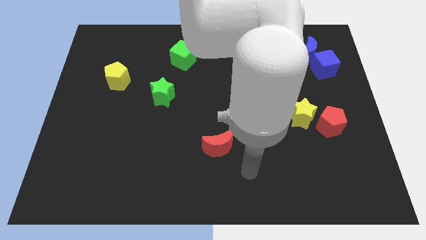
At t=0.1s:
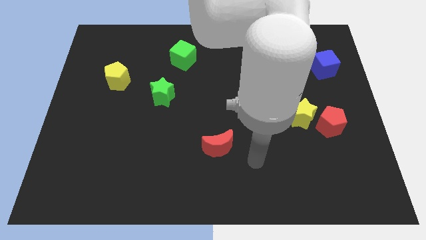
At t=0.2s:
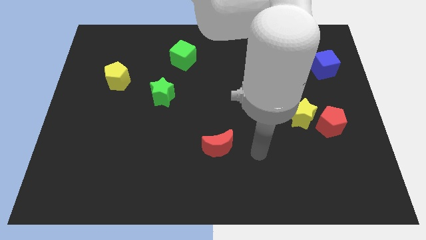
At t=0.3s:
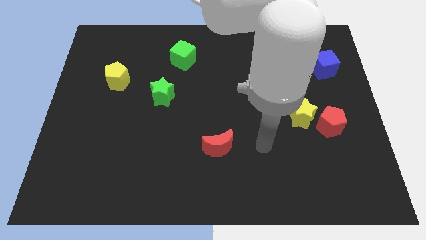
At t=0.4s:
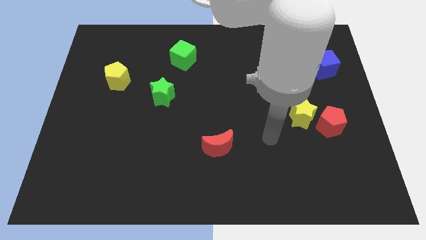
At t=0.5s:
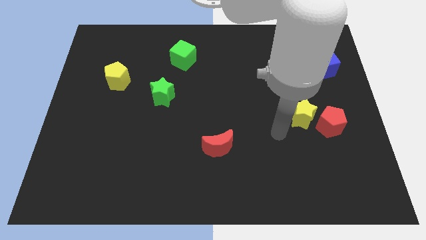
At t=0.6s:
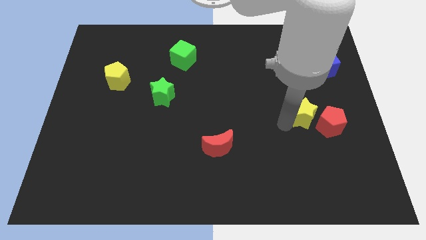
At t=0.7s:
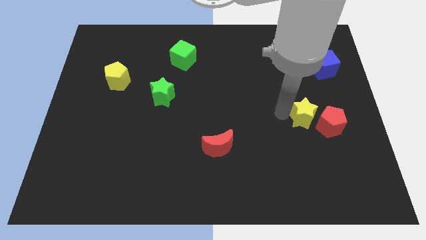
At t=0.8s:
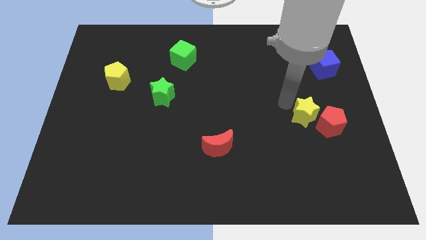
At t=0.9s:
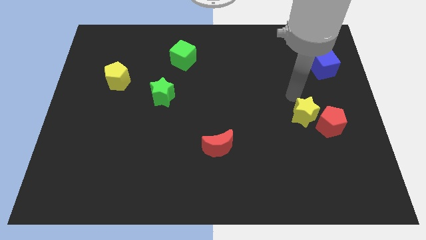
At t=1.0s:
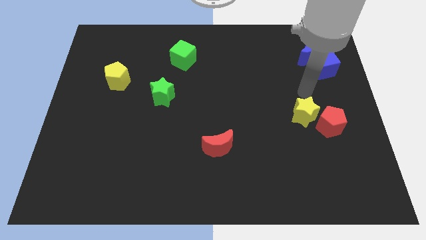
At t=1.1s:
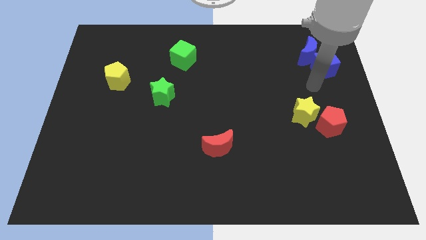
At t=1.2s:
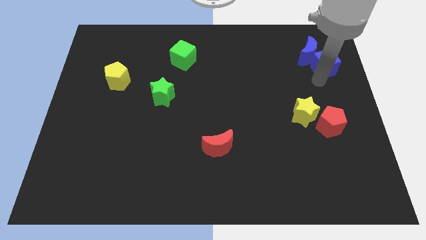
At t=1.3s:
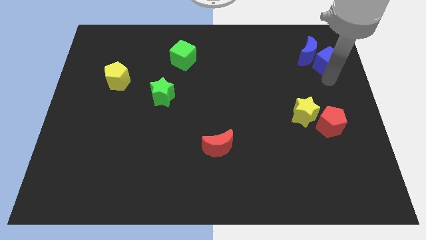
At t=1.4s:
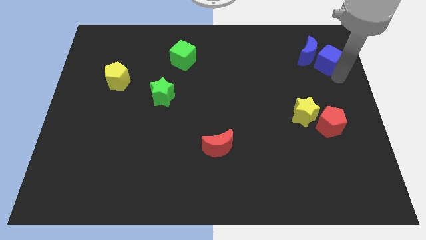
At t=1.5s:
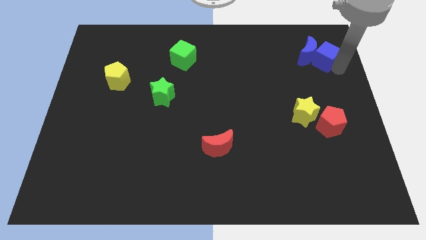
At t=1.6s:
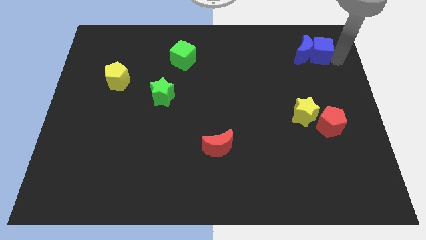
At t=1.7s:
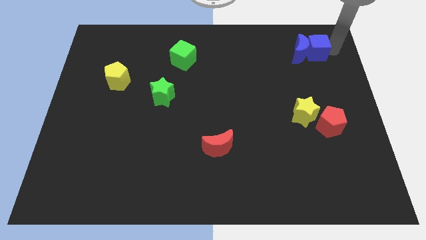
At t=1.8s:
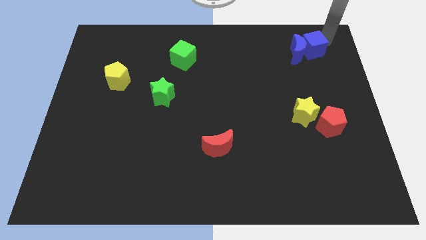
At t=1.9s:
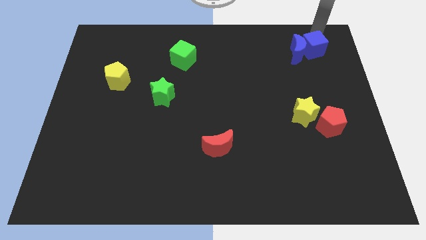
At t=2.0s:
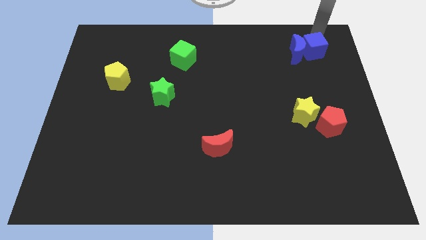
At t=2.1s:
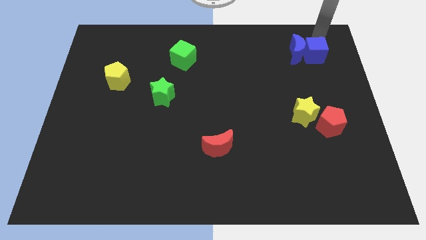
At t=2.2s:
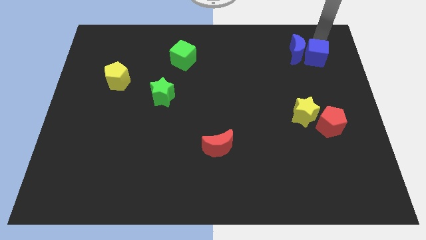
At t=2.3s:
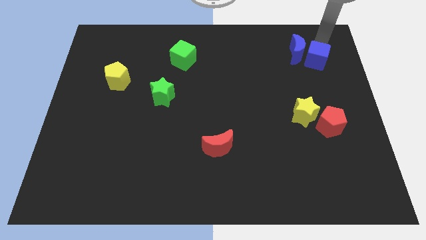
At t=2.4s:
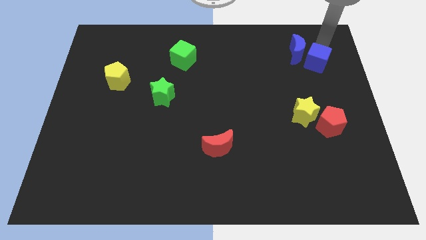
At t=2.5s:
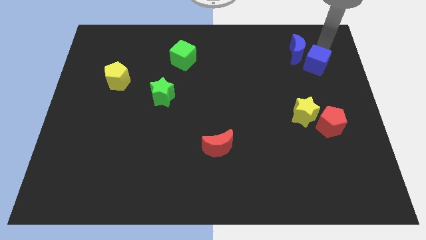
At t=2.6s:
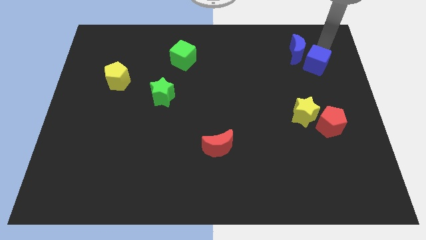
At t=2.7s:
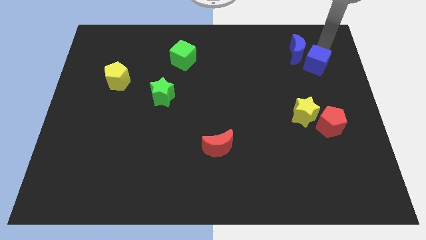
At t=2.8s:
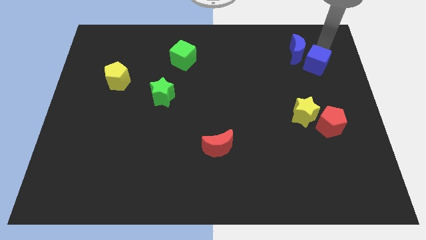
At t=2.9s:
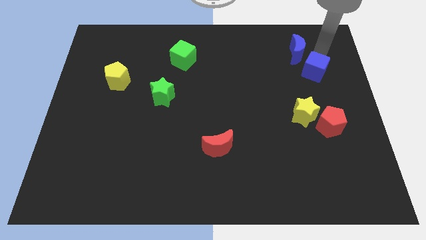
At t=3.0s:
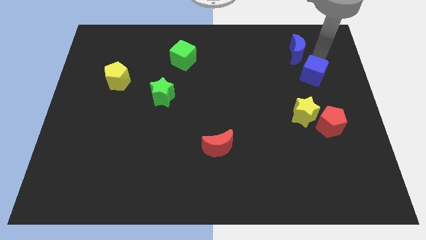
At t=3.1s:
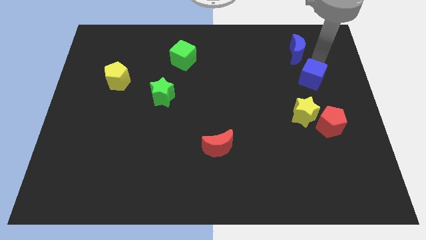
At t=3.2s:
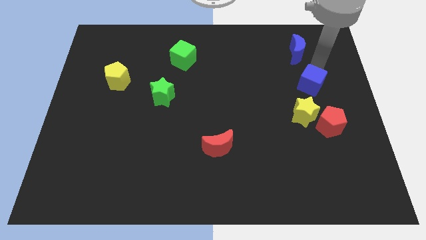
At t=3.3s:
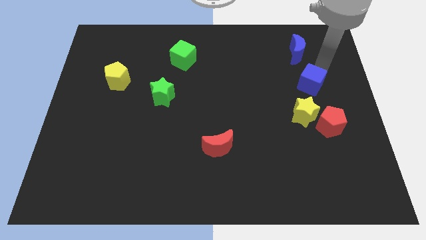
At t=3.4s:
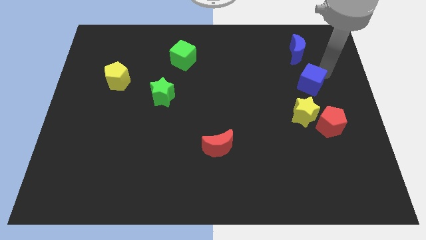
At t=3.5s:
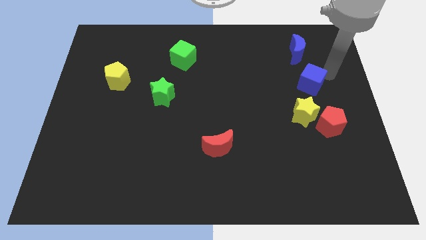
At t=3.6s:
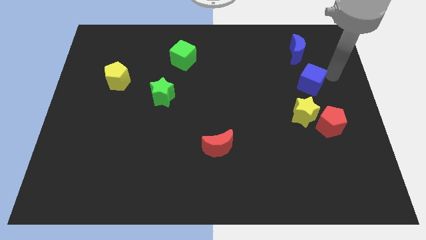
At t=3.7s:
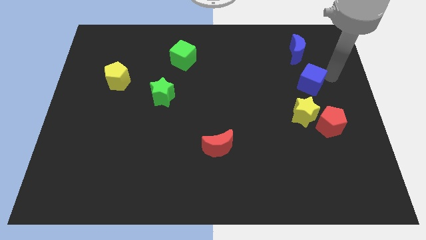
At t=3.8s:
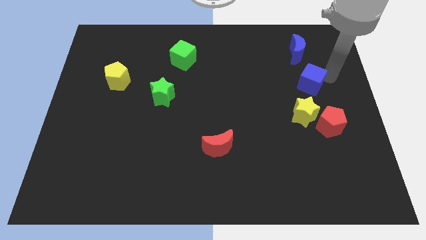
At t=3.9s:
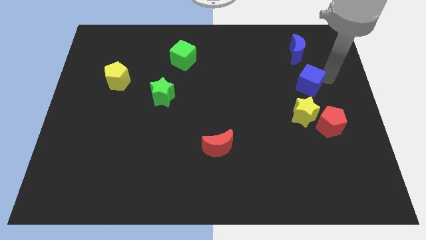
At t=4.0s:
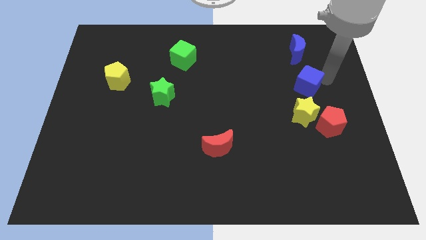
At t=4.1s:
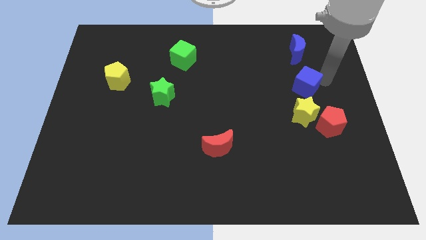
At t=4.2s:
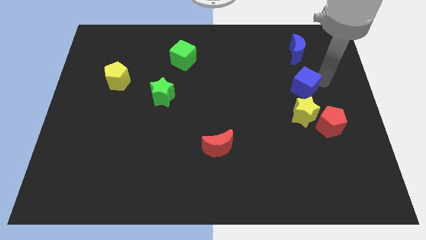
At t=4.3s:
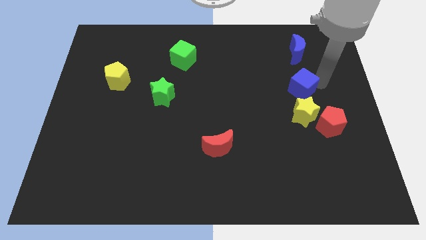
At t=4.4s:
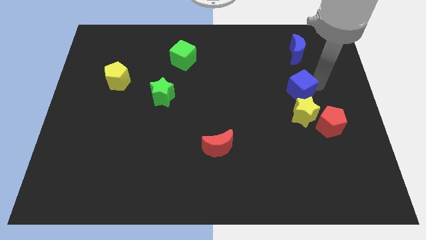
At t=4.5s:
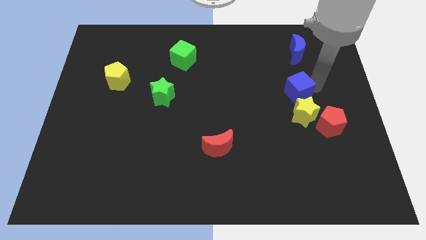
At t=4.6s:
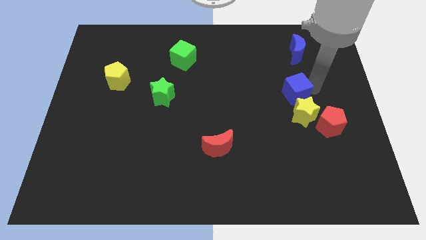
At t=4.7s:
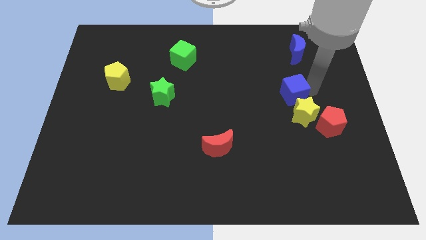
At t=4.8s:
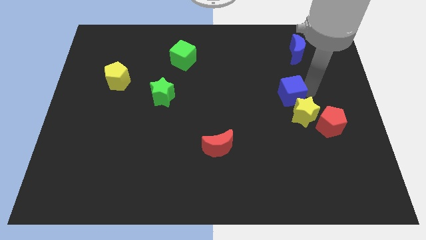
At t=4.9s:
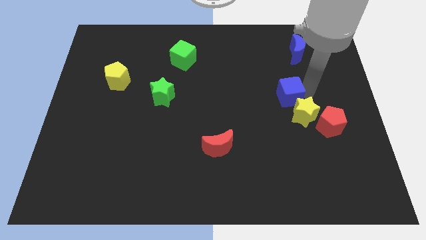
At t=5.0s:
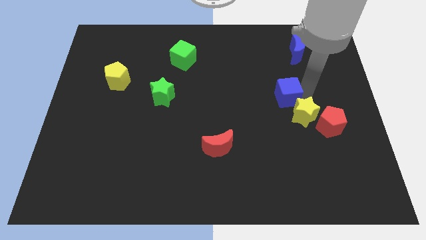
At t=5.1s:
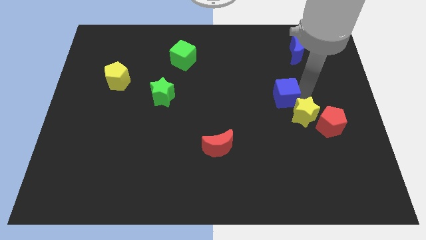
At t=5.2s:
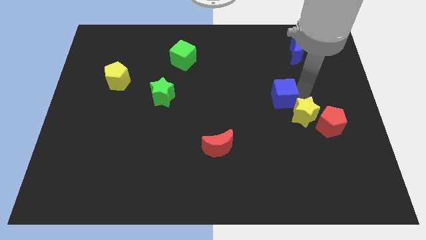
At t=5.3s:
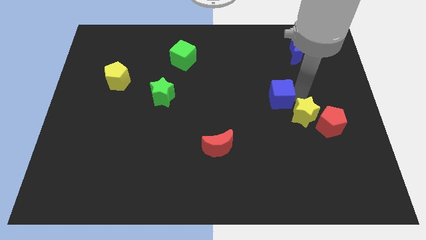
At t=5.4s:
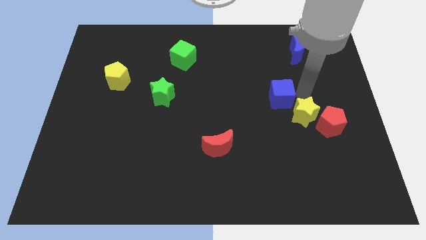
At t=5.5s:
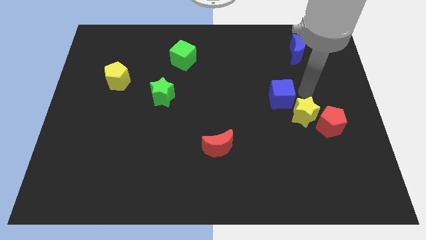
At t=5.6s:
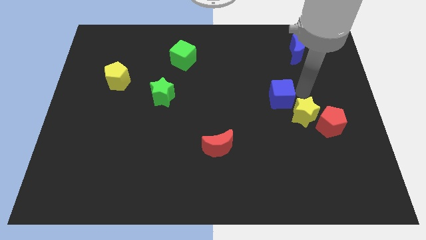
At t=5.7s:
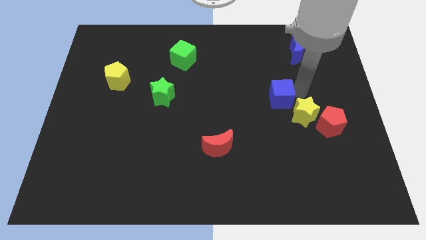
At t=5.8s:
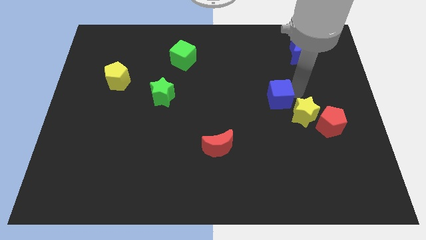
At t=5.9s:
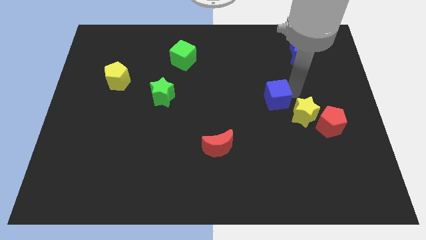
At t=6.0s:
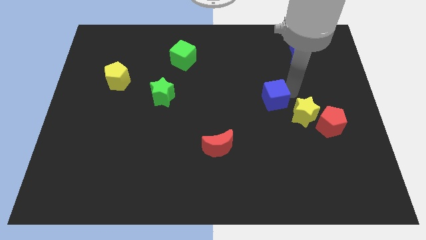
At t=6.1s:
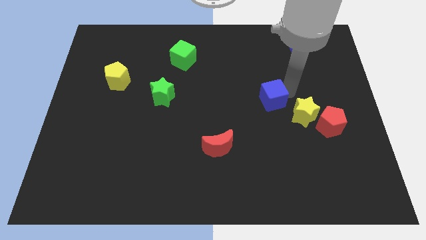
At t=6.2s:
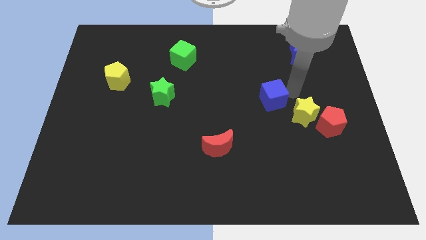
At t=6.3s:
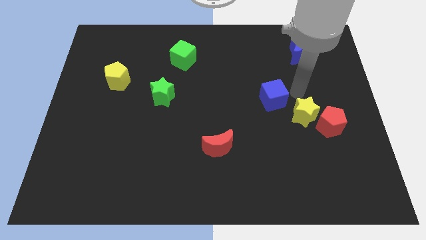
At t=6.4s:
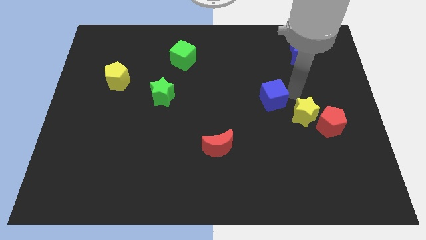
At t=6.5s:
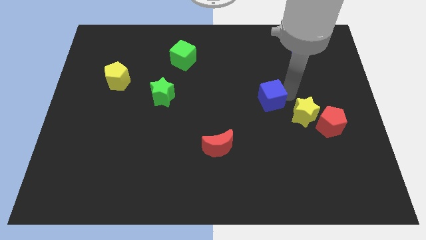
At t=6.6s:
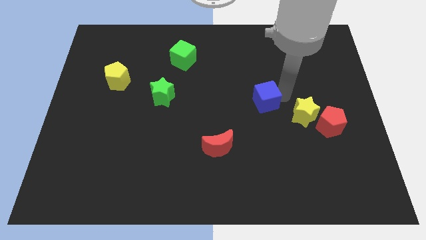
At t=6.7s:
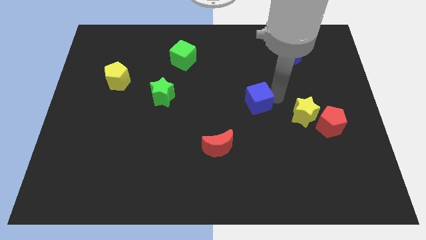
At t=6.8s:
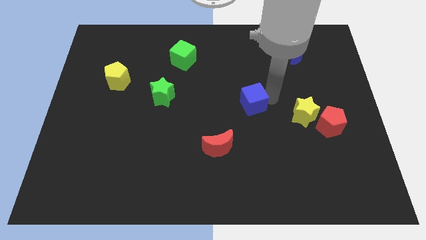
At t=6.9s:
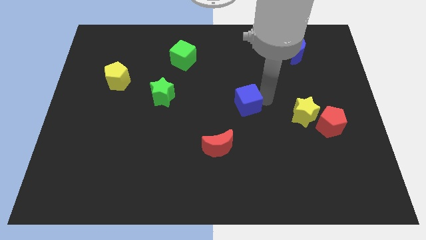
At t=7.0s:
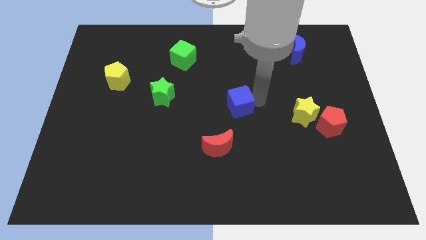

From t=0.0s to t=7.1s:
push the blue cube above the red moon

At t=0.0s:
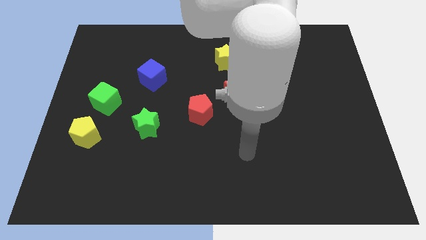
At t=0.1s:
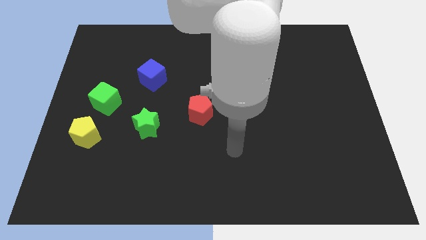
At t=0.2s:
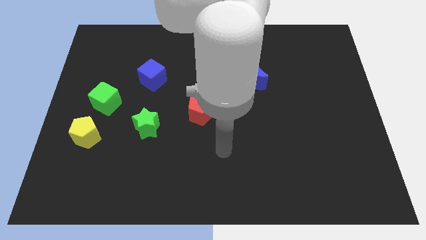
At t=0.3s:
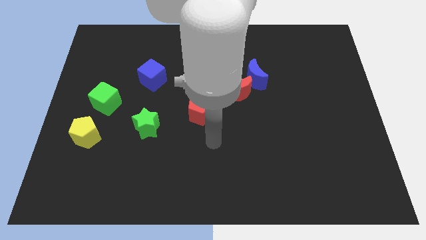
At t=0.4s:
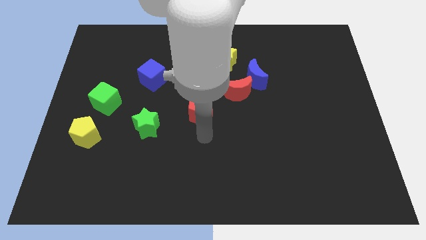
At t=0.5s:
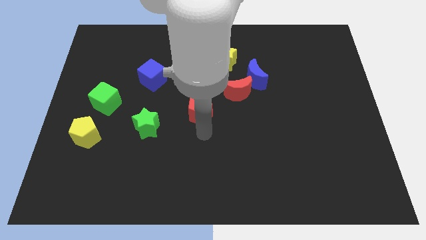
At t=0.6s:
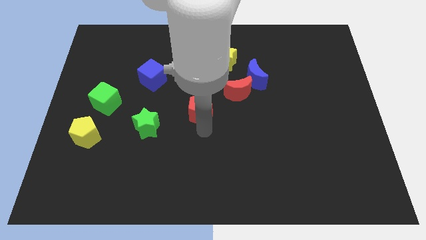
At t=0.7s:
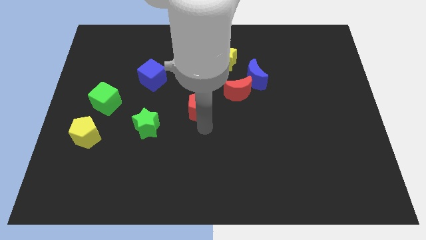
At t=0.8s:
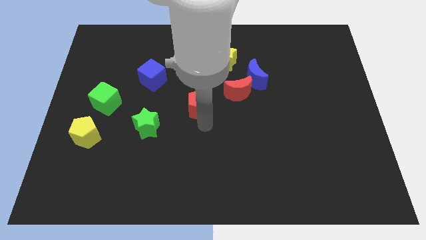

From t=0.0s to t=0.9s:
push the red pentagon to the left of the red moon
